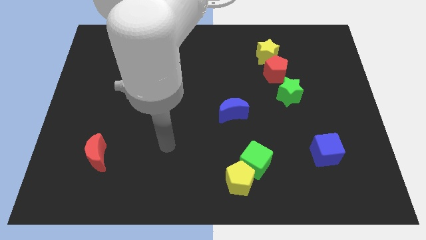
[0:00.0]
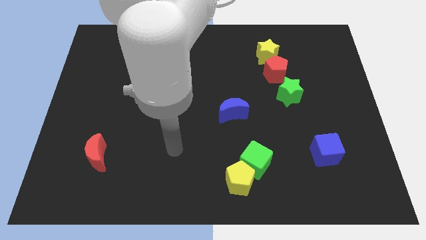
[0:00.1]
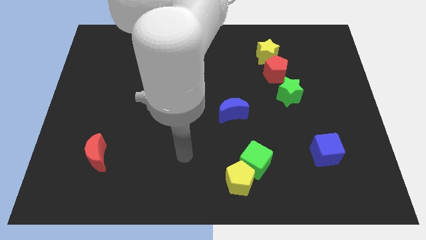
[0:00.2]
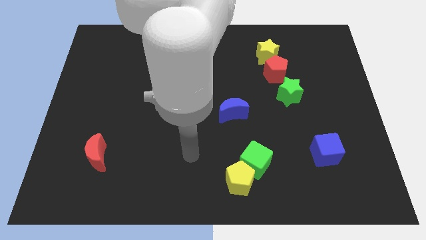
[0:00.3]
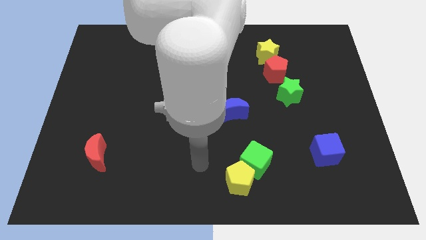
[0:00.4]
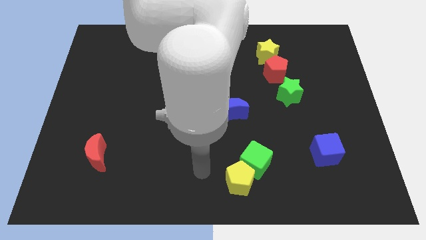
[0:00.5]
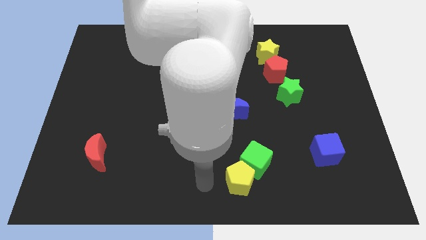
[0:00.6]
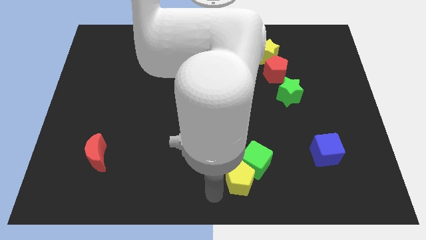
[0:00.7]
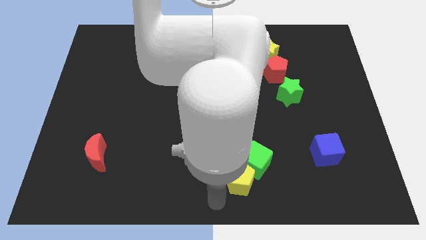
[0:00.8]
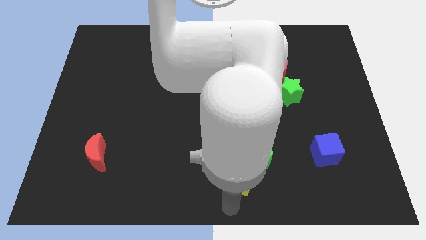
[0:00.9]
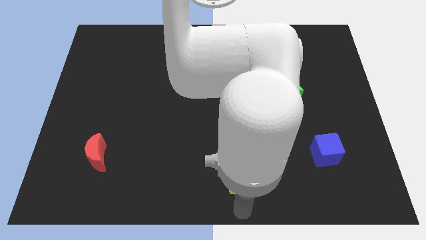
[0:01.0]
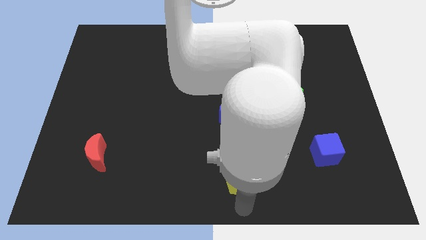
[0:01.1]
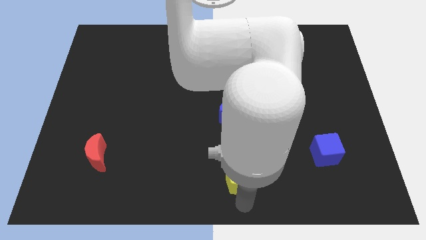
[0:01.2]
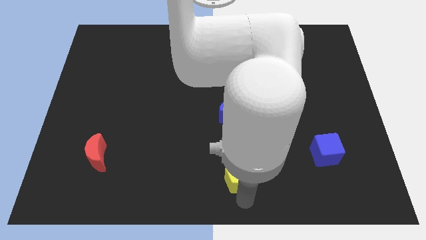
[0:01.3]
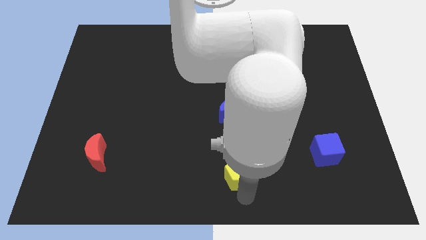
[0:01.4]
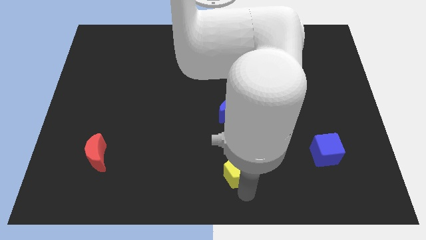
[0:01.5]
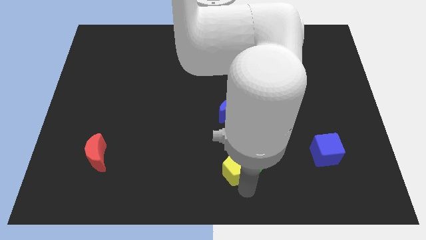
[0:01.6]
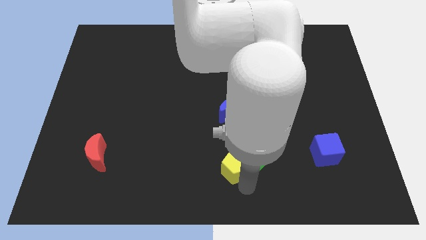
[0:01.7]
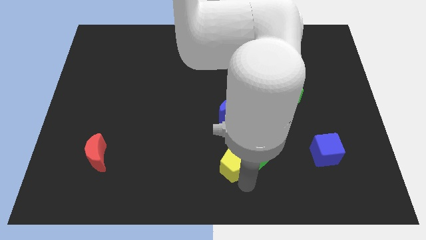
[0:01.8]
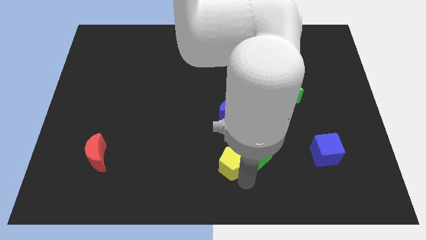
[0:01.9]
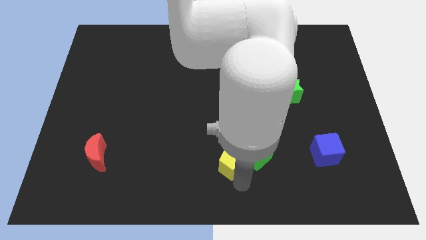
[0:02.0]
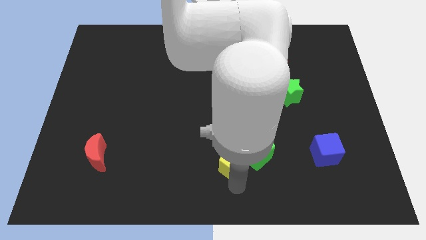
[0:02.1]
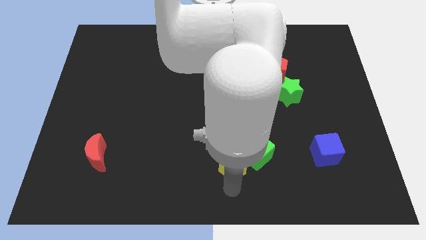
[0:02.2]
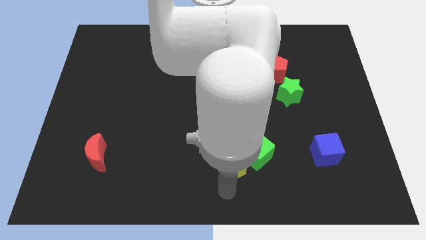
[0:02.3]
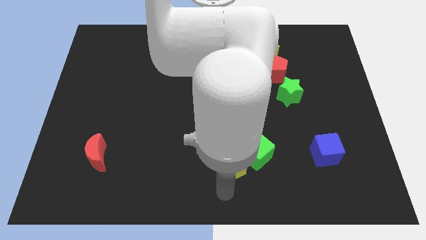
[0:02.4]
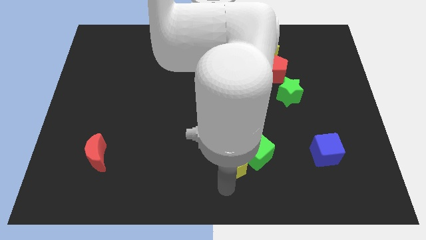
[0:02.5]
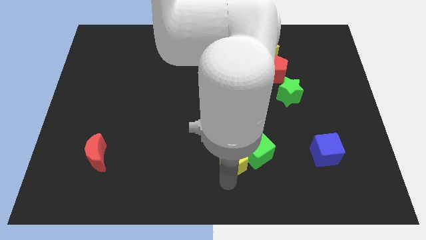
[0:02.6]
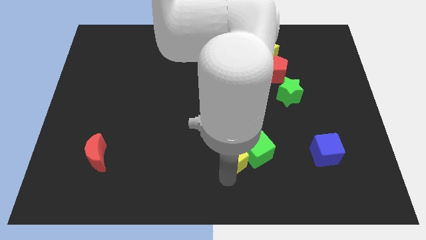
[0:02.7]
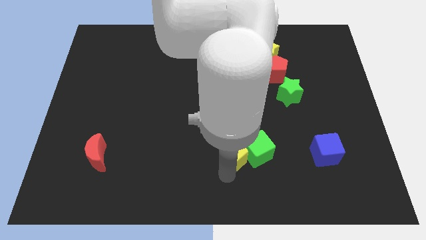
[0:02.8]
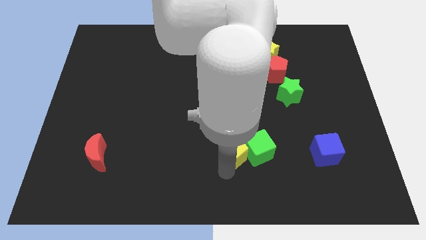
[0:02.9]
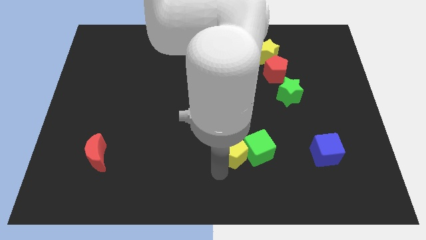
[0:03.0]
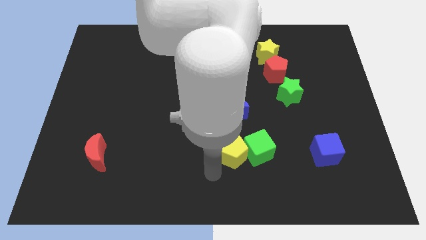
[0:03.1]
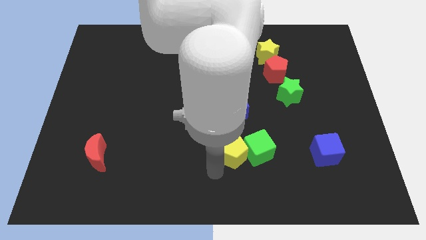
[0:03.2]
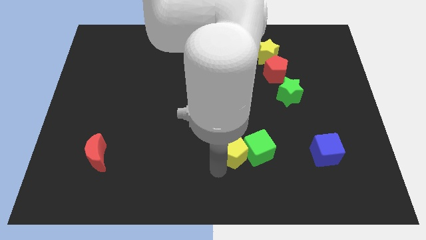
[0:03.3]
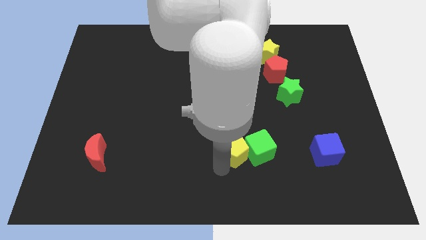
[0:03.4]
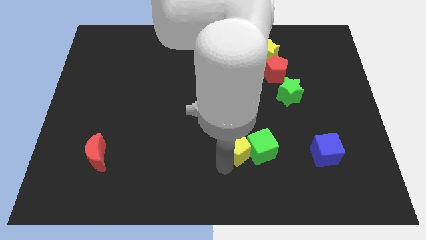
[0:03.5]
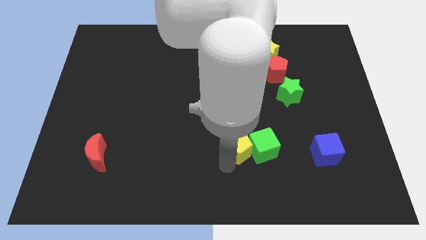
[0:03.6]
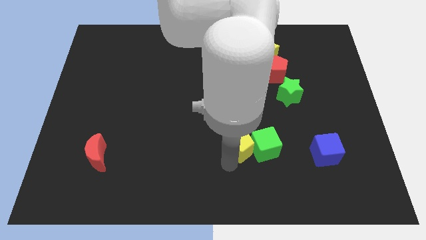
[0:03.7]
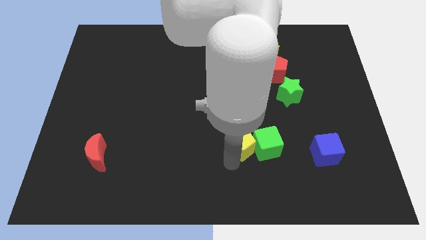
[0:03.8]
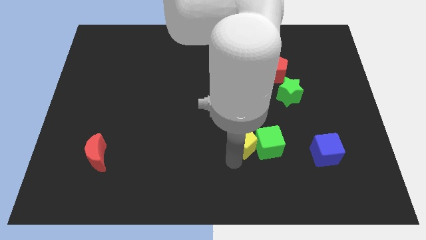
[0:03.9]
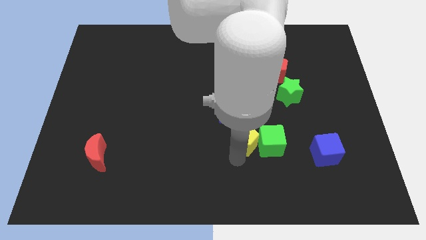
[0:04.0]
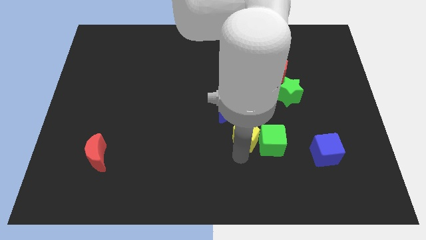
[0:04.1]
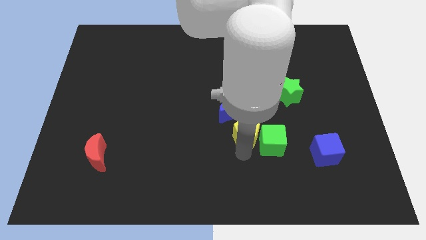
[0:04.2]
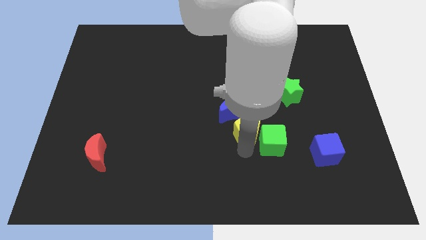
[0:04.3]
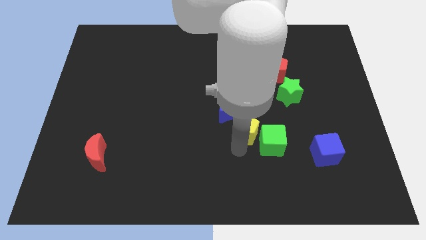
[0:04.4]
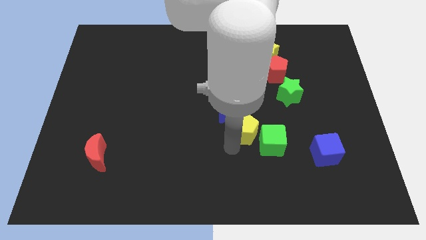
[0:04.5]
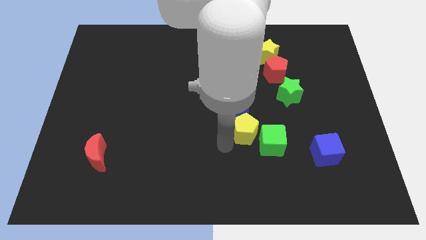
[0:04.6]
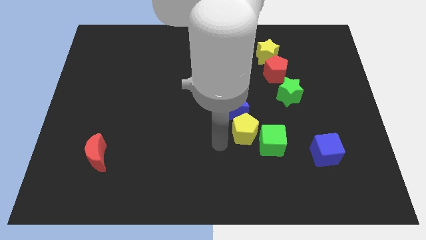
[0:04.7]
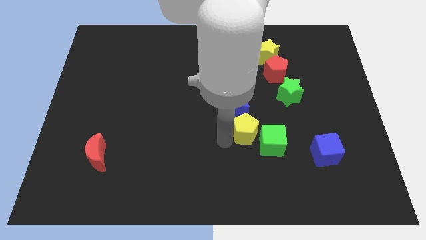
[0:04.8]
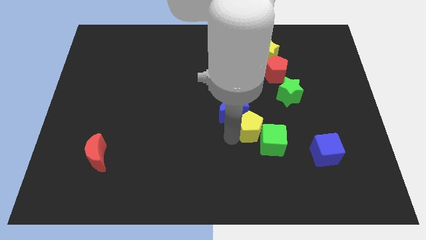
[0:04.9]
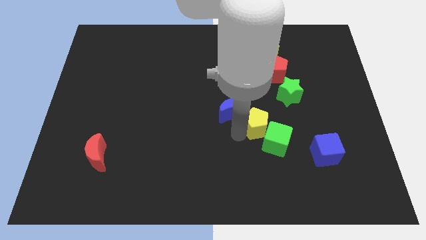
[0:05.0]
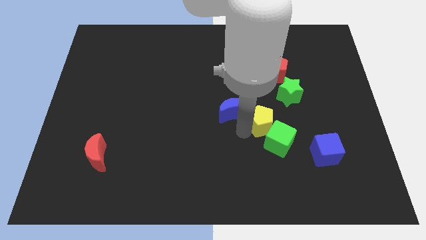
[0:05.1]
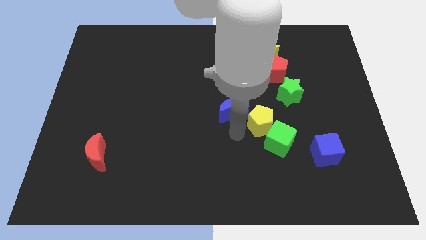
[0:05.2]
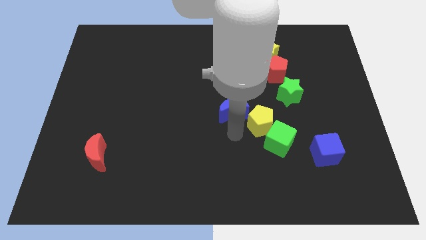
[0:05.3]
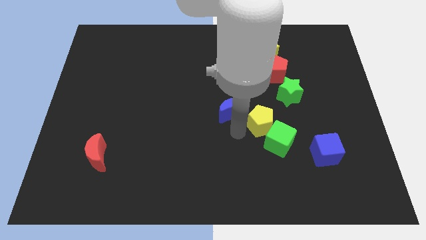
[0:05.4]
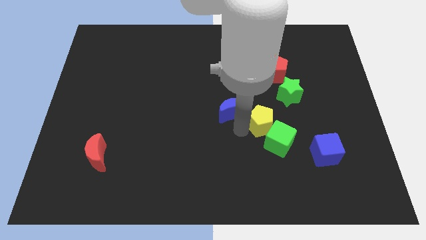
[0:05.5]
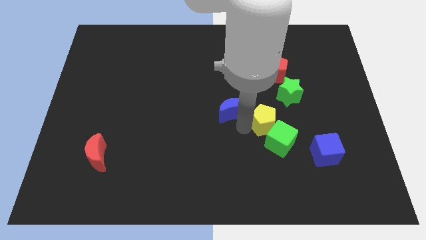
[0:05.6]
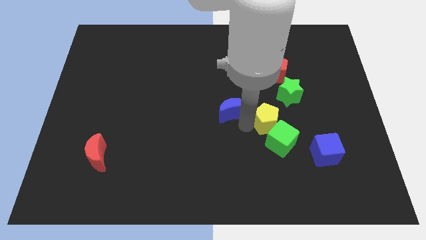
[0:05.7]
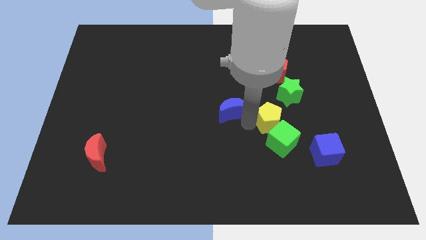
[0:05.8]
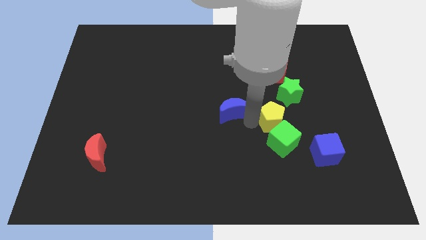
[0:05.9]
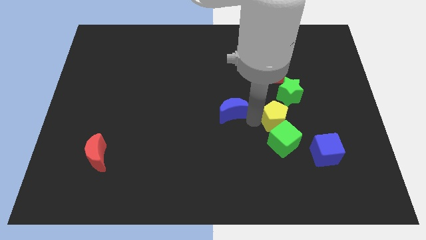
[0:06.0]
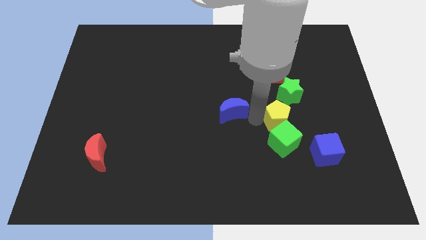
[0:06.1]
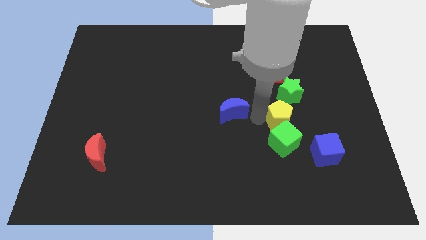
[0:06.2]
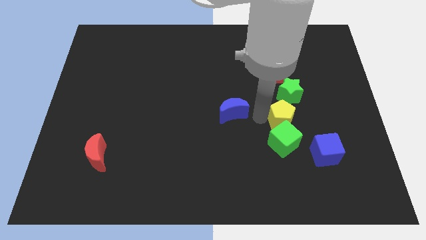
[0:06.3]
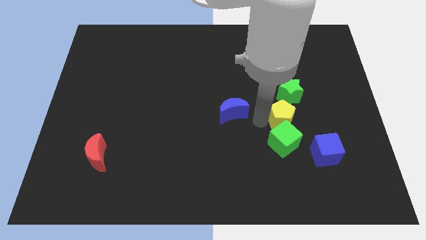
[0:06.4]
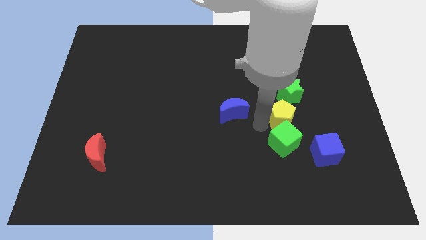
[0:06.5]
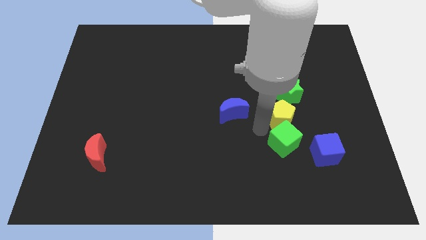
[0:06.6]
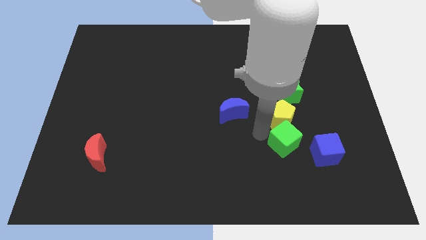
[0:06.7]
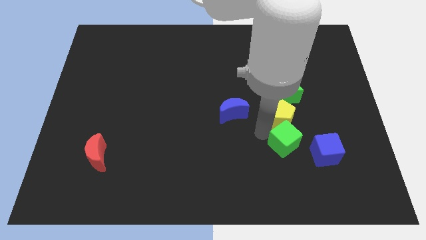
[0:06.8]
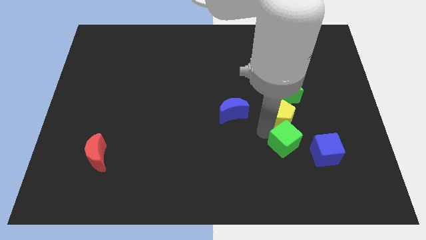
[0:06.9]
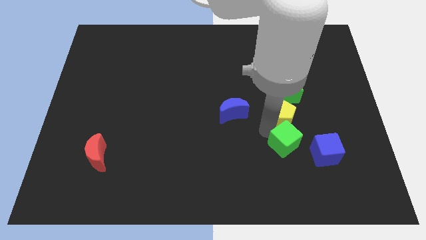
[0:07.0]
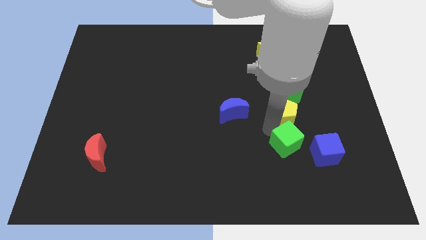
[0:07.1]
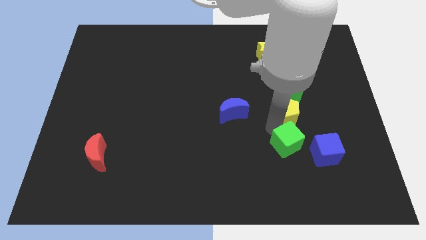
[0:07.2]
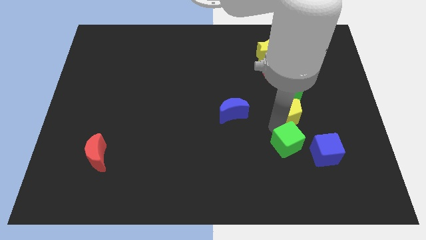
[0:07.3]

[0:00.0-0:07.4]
slide the yellow pentagon next to the green star
